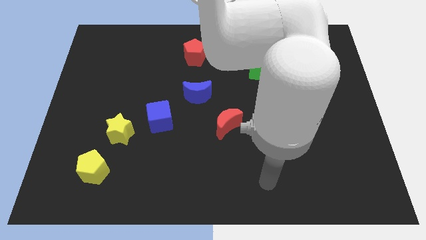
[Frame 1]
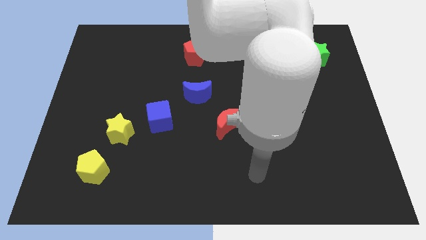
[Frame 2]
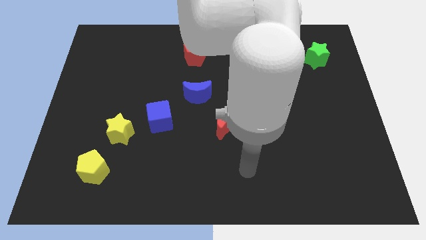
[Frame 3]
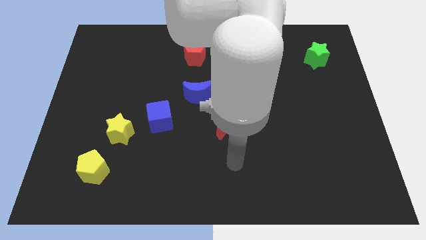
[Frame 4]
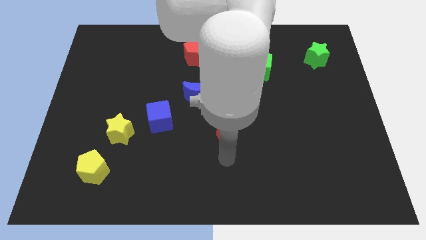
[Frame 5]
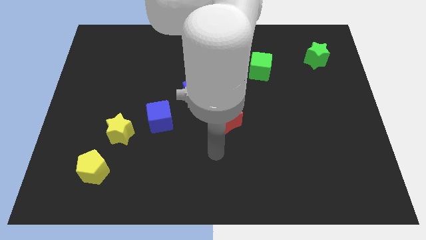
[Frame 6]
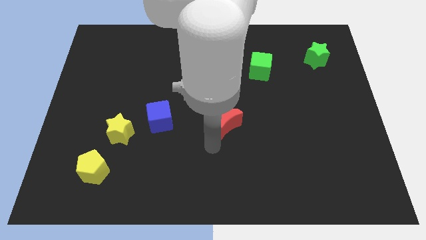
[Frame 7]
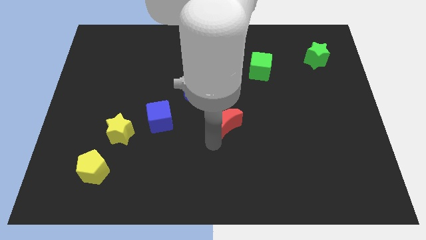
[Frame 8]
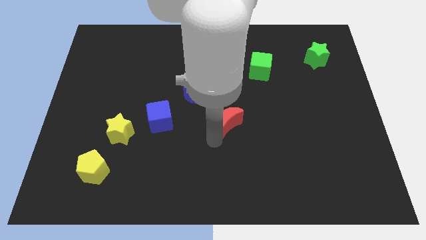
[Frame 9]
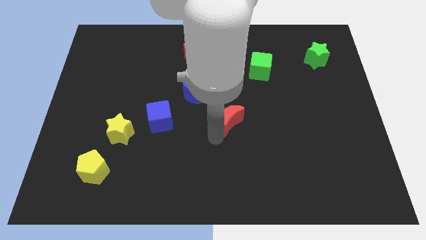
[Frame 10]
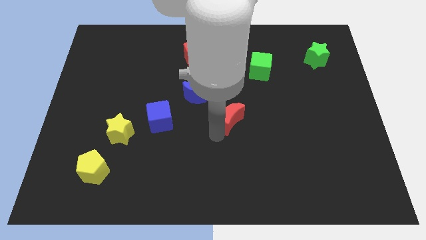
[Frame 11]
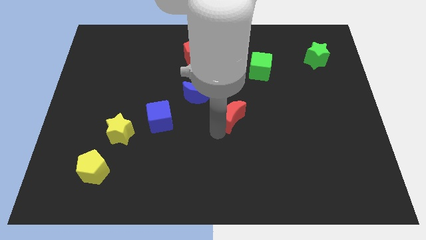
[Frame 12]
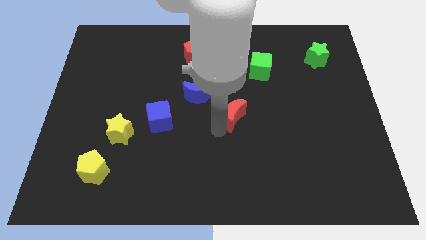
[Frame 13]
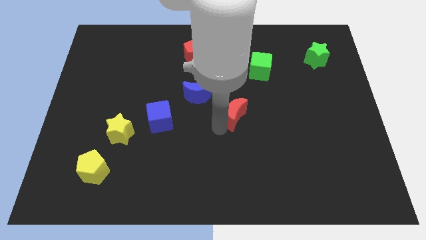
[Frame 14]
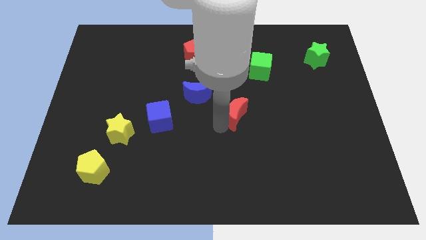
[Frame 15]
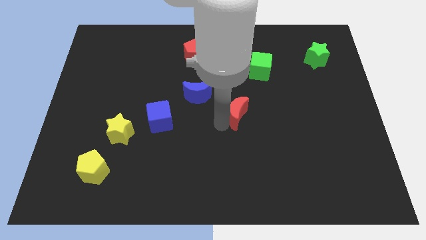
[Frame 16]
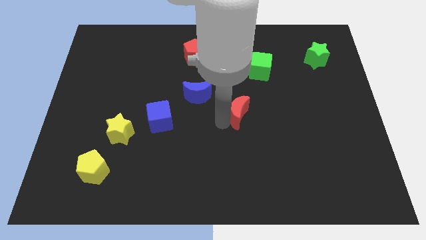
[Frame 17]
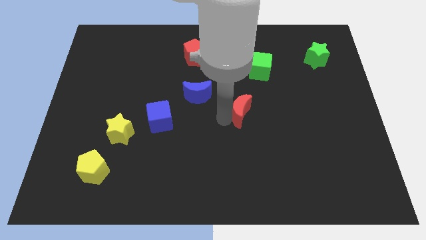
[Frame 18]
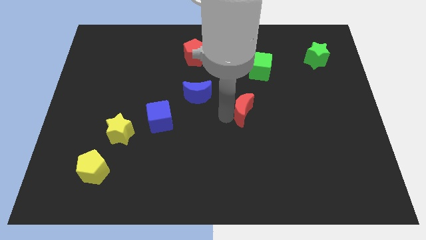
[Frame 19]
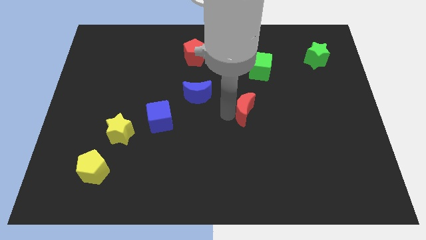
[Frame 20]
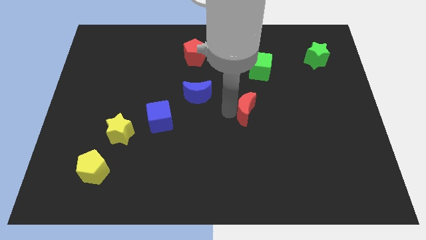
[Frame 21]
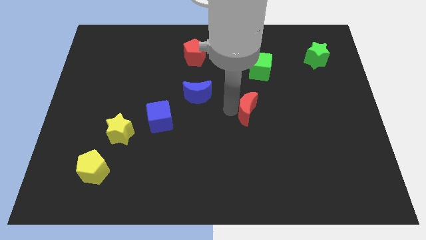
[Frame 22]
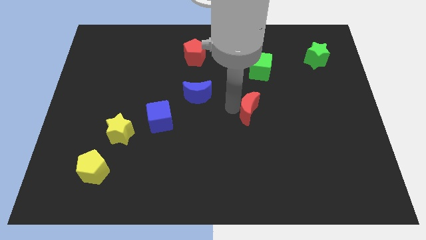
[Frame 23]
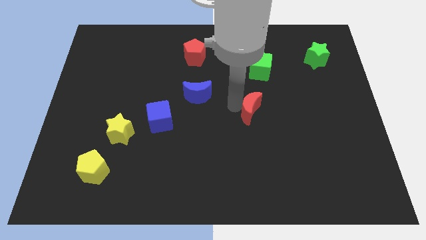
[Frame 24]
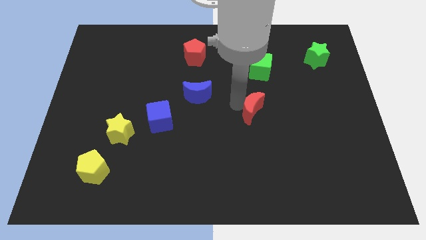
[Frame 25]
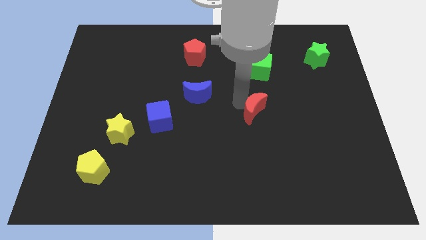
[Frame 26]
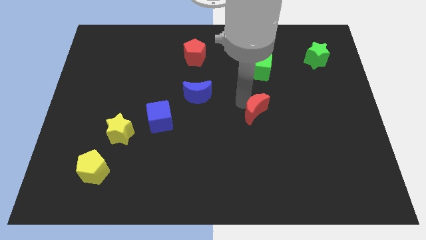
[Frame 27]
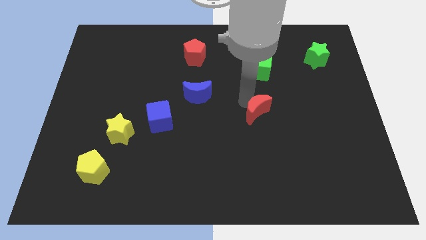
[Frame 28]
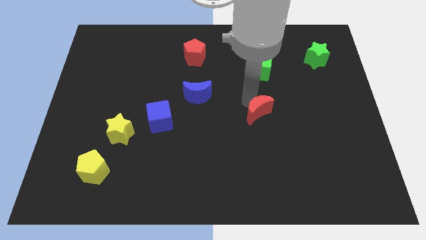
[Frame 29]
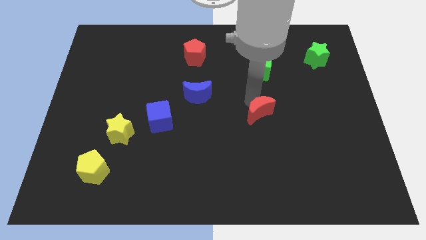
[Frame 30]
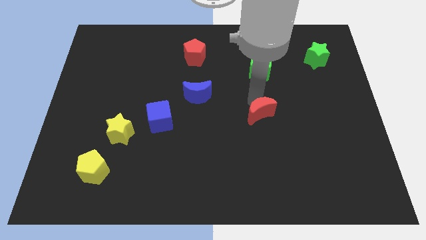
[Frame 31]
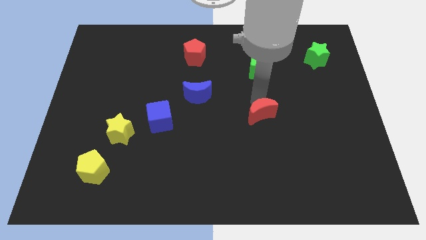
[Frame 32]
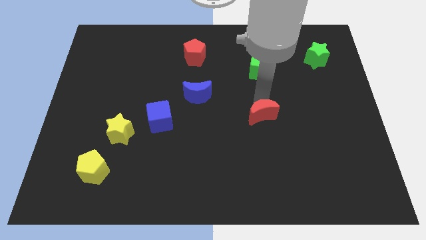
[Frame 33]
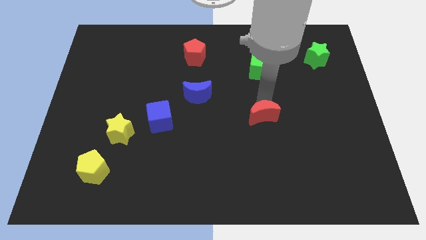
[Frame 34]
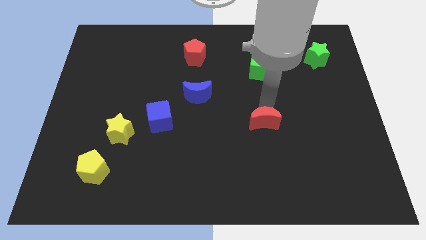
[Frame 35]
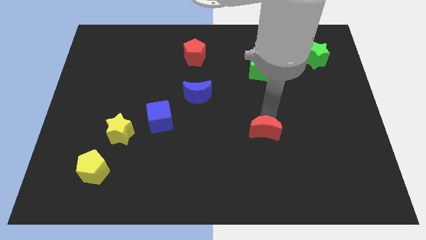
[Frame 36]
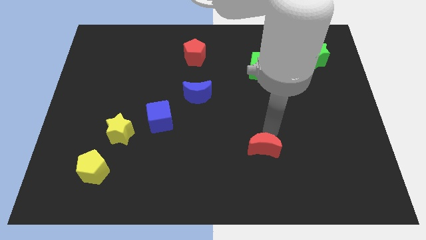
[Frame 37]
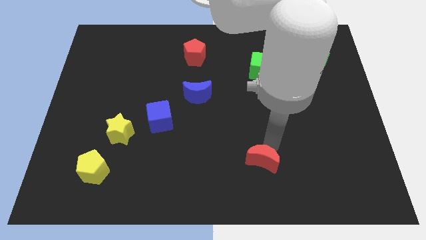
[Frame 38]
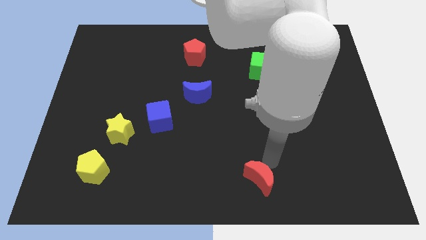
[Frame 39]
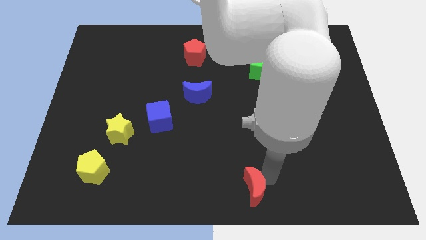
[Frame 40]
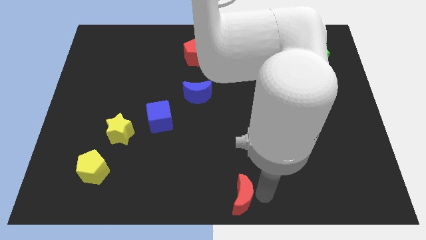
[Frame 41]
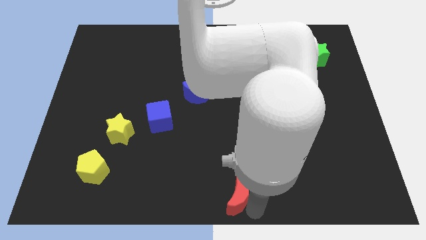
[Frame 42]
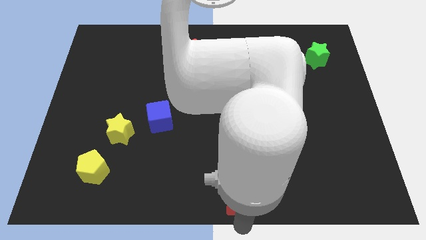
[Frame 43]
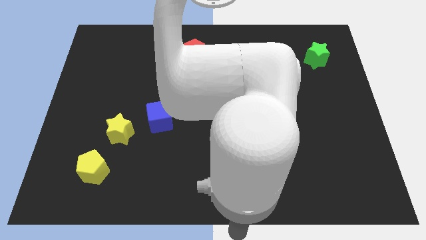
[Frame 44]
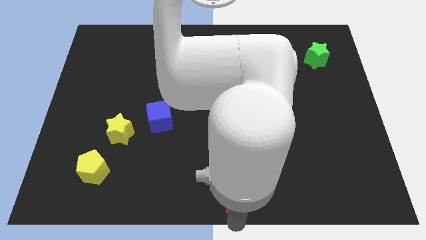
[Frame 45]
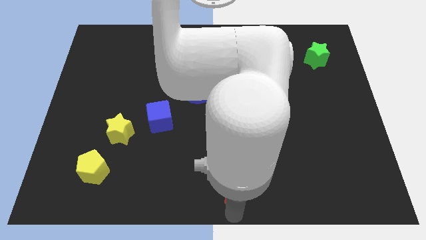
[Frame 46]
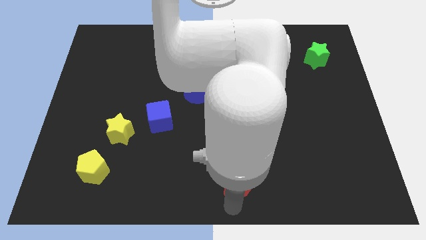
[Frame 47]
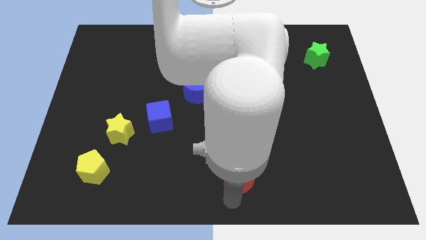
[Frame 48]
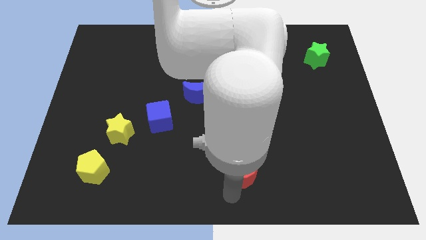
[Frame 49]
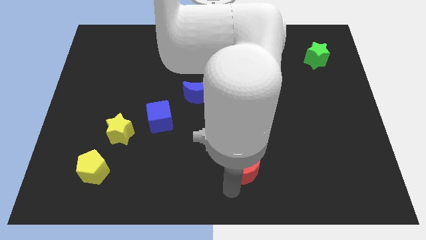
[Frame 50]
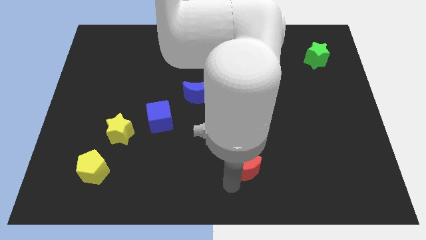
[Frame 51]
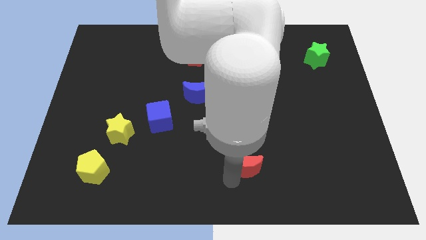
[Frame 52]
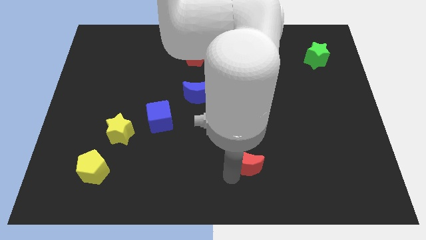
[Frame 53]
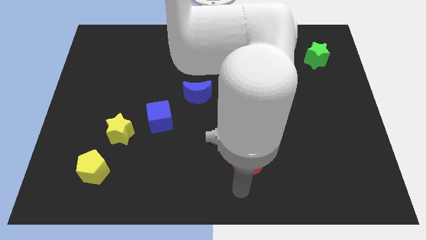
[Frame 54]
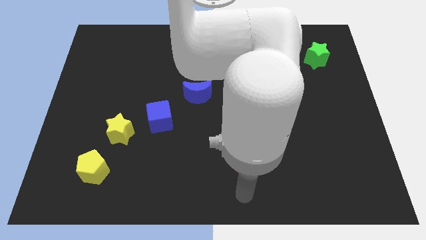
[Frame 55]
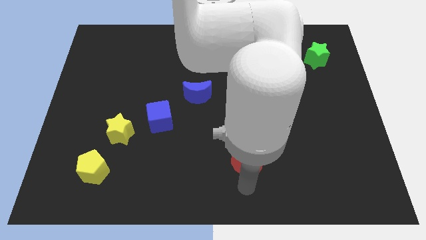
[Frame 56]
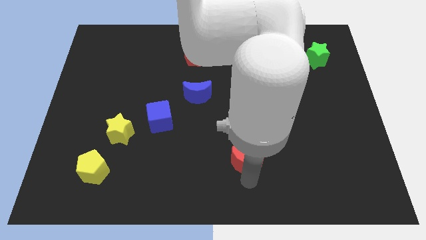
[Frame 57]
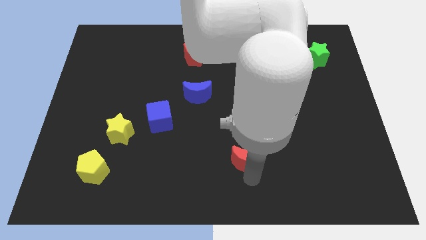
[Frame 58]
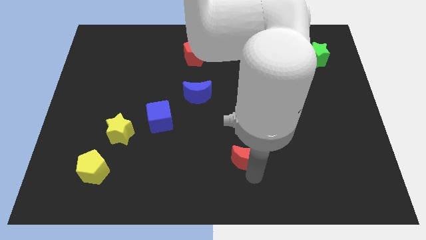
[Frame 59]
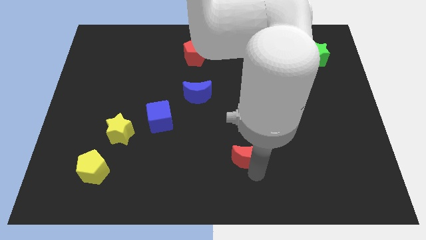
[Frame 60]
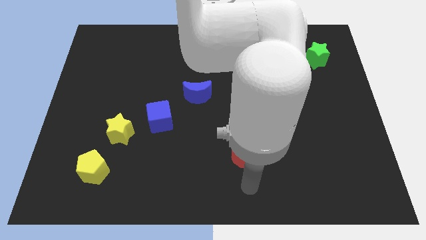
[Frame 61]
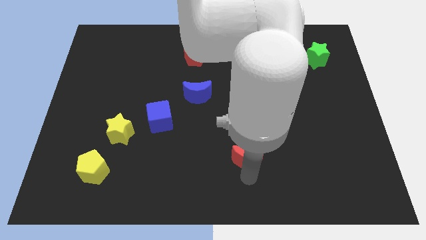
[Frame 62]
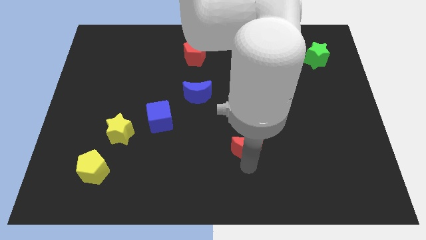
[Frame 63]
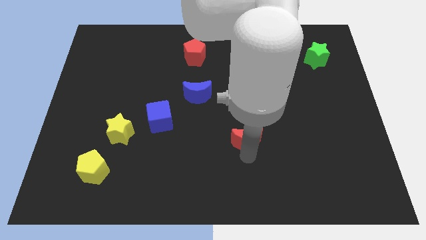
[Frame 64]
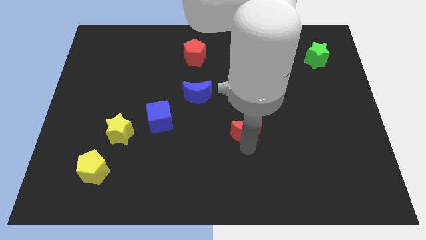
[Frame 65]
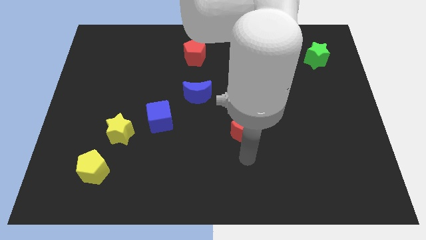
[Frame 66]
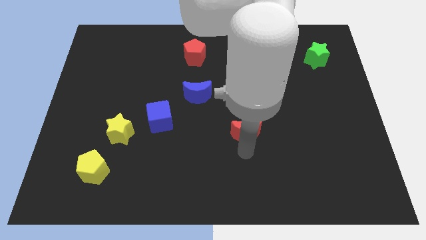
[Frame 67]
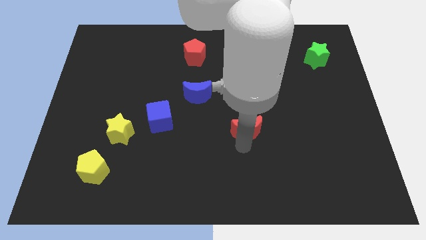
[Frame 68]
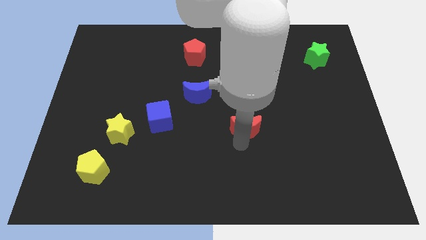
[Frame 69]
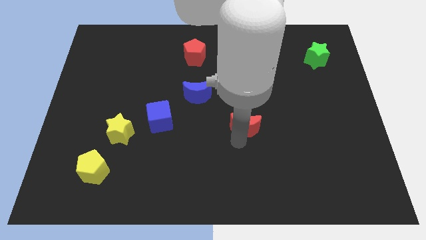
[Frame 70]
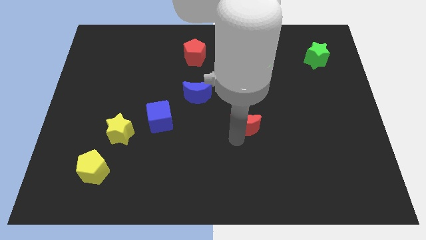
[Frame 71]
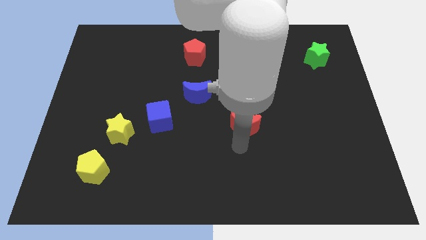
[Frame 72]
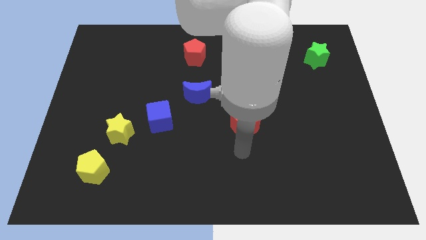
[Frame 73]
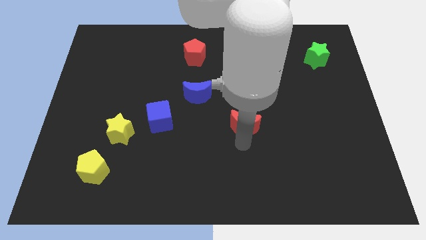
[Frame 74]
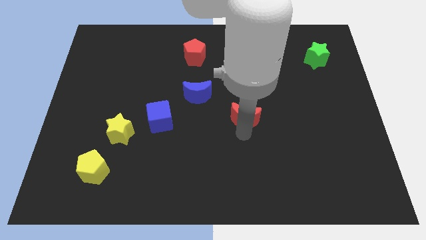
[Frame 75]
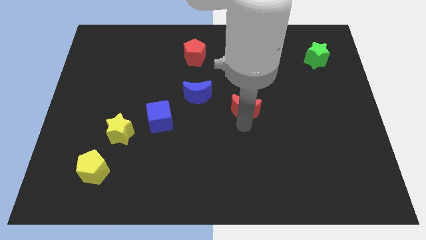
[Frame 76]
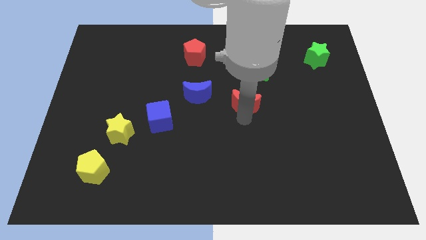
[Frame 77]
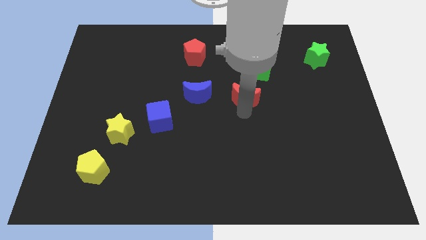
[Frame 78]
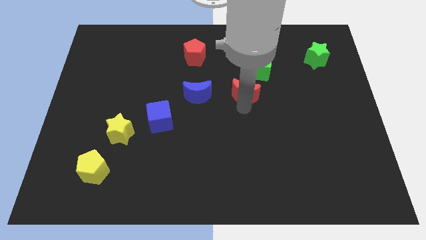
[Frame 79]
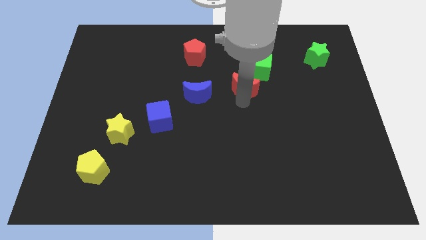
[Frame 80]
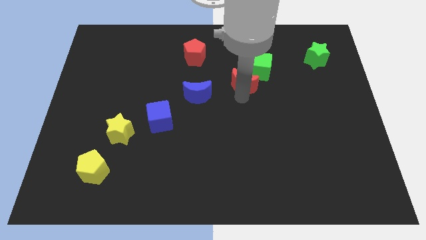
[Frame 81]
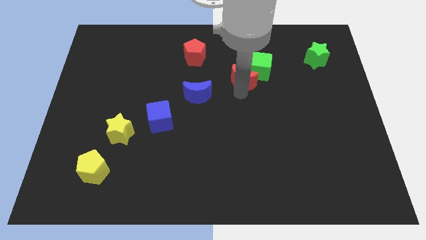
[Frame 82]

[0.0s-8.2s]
push the red moon towards the green cube
